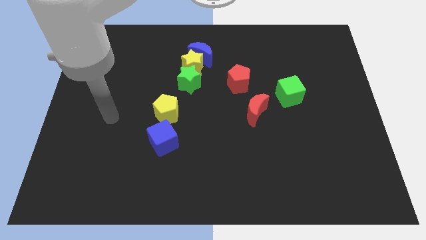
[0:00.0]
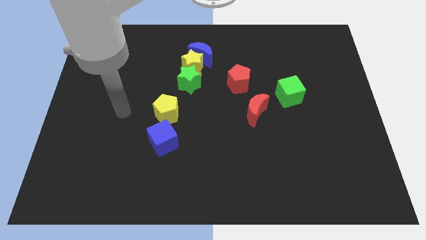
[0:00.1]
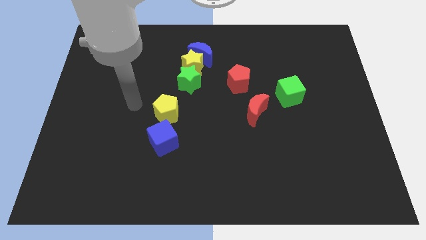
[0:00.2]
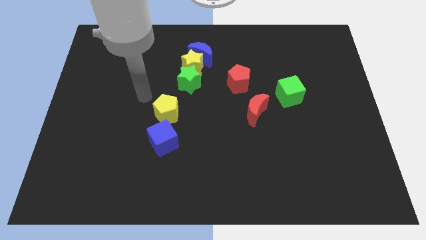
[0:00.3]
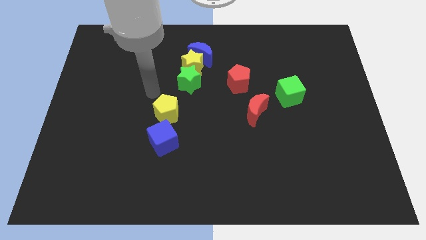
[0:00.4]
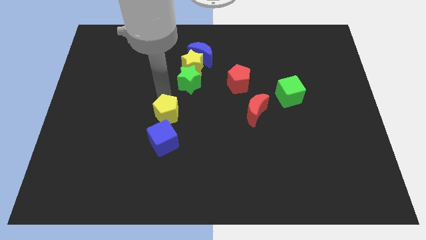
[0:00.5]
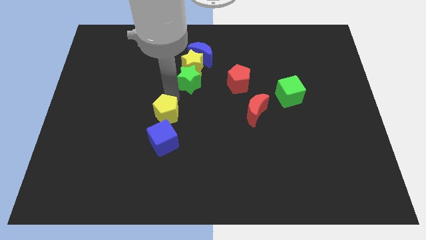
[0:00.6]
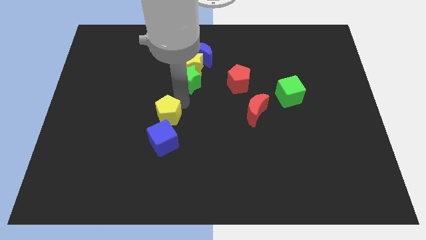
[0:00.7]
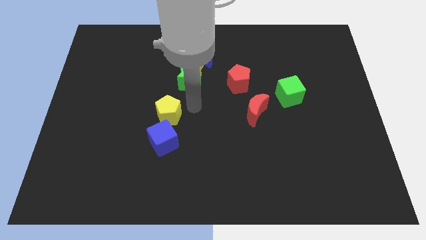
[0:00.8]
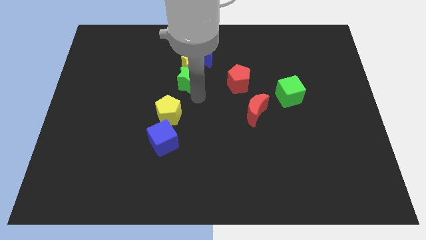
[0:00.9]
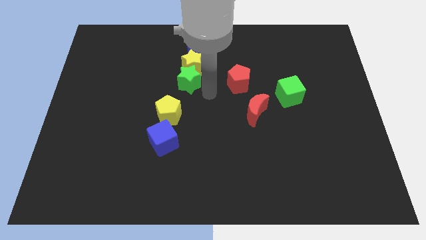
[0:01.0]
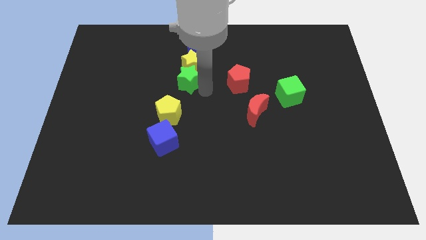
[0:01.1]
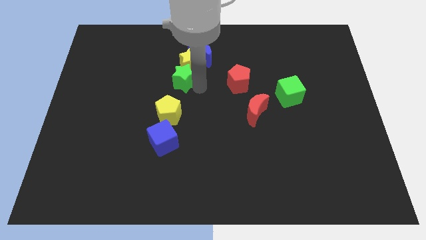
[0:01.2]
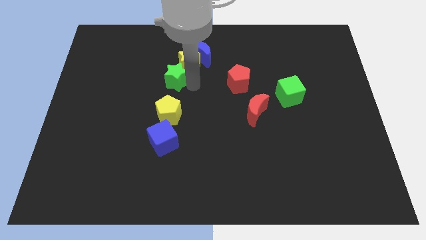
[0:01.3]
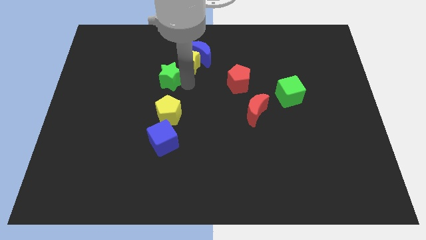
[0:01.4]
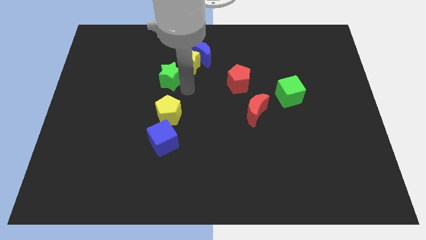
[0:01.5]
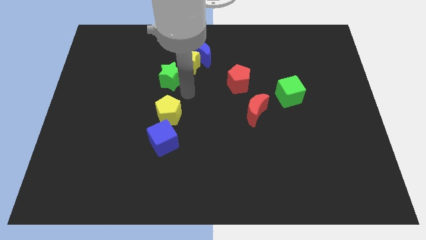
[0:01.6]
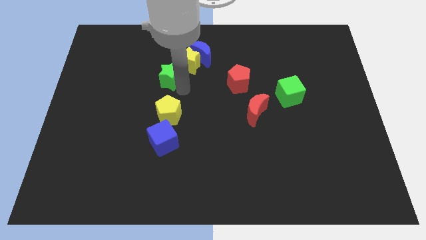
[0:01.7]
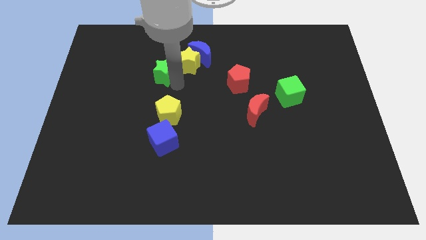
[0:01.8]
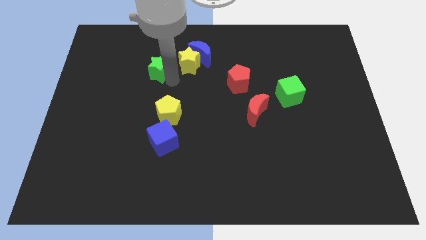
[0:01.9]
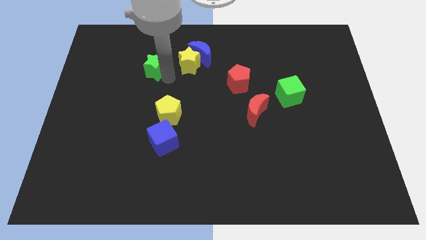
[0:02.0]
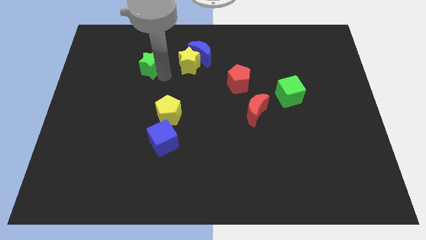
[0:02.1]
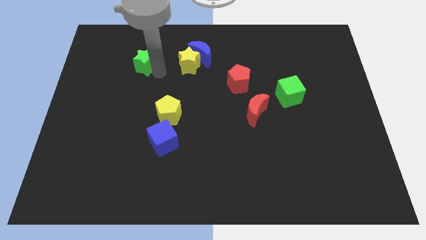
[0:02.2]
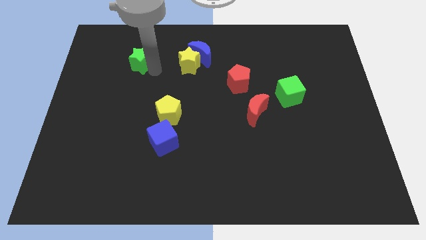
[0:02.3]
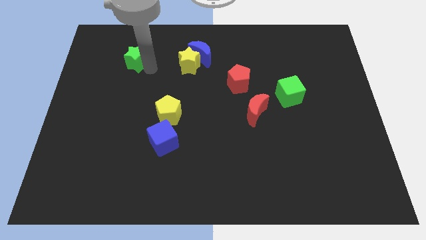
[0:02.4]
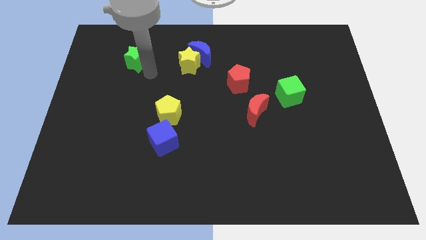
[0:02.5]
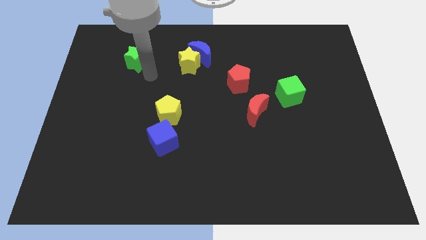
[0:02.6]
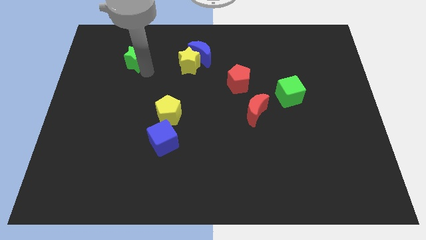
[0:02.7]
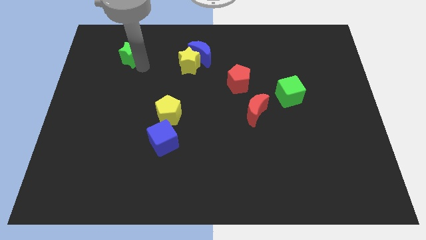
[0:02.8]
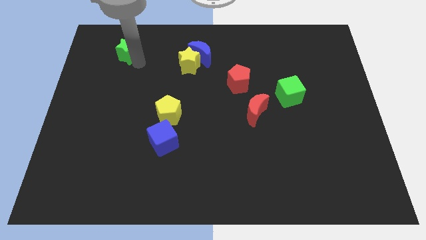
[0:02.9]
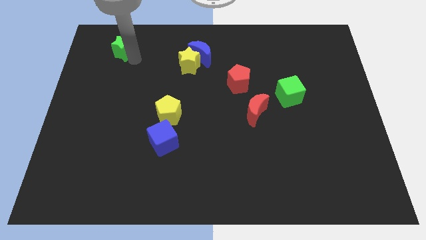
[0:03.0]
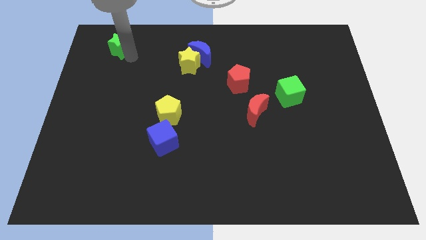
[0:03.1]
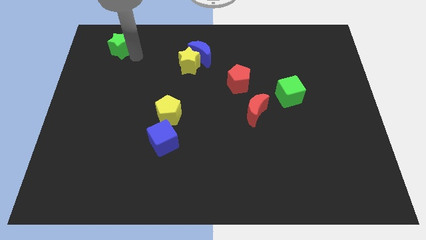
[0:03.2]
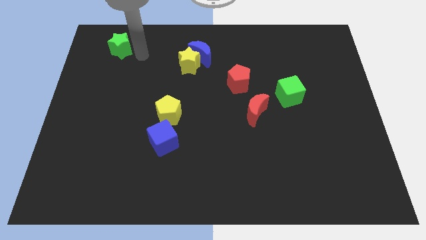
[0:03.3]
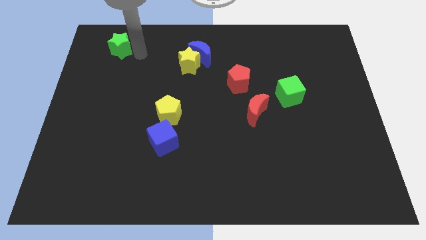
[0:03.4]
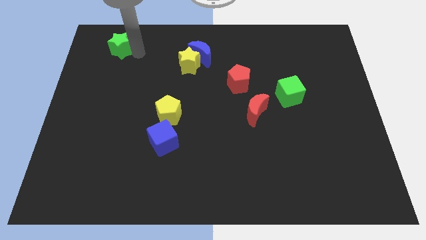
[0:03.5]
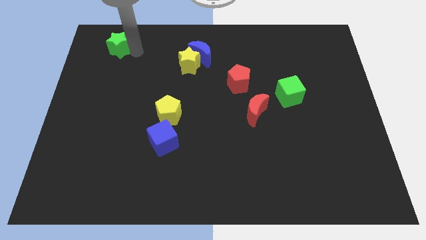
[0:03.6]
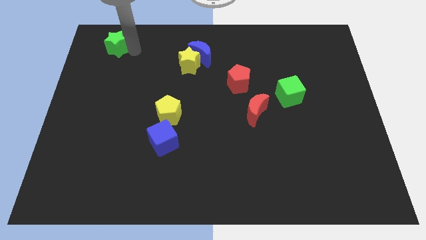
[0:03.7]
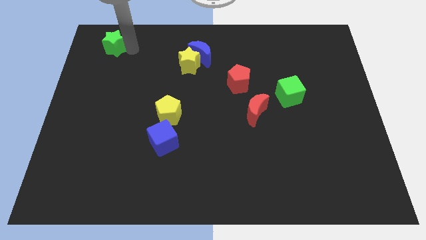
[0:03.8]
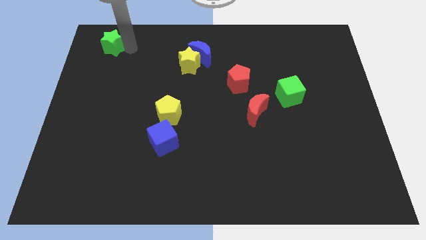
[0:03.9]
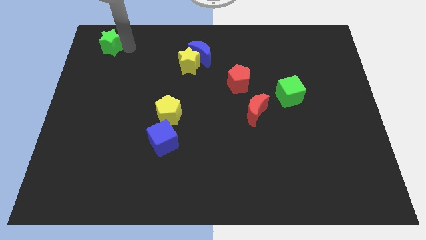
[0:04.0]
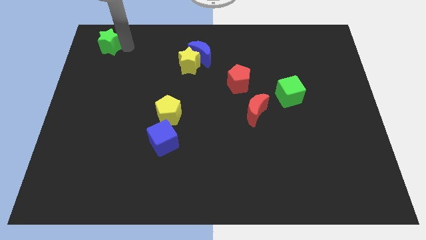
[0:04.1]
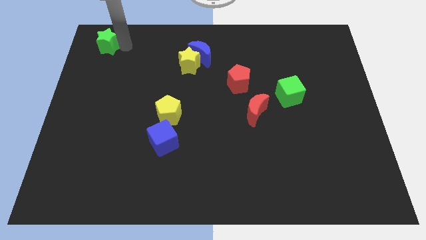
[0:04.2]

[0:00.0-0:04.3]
push the green star to the top left corner

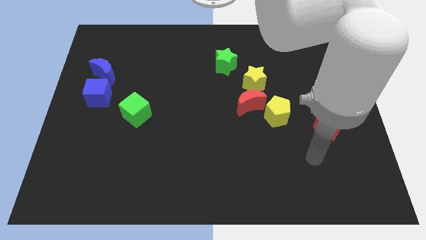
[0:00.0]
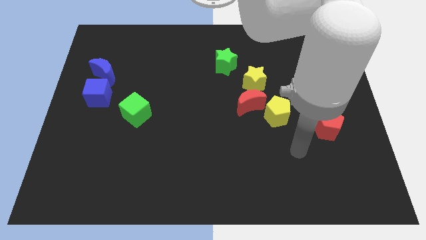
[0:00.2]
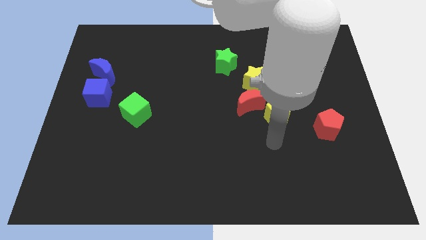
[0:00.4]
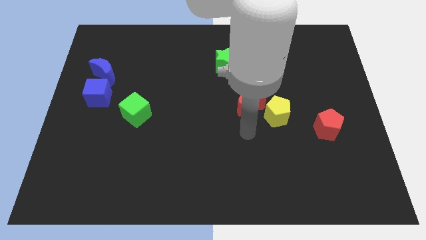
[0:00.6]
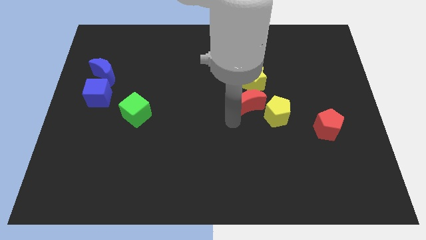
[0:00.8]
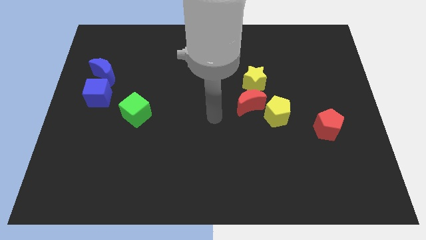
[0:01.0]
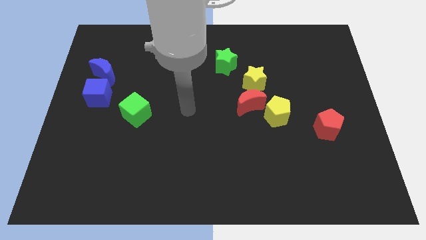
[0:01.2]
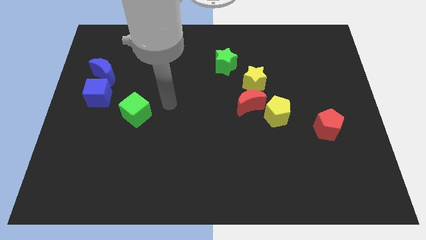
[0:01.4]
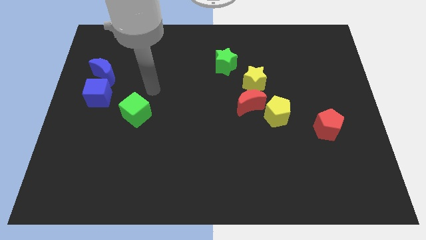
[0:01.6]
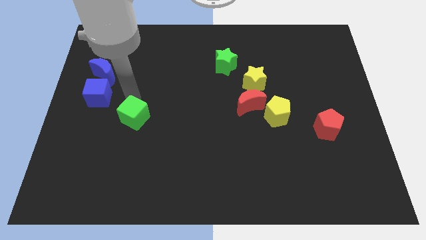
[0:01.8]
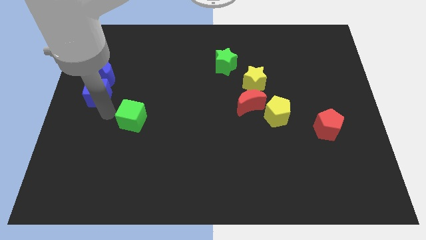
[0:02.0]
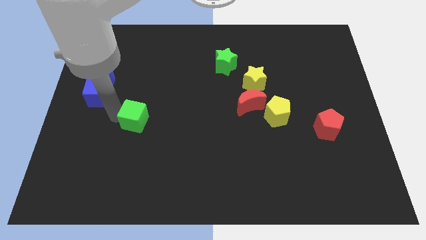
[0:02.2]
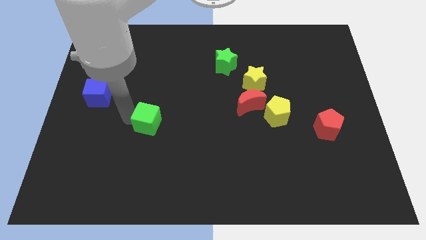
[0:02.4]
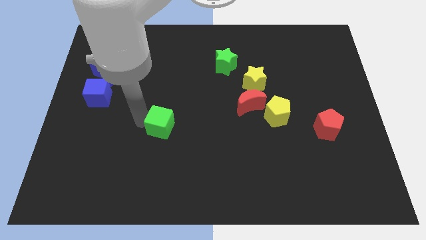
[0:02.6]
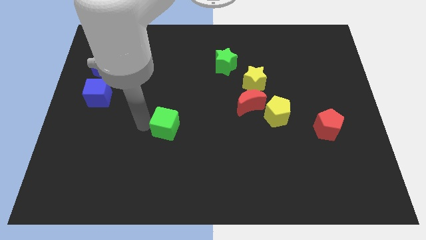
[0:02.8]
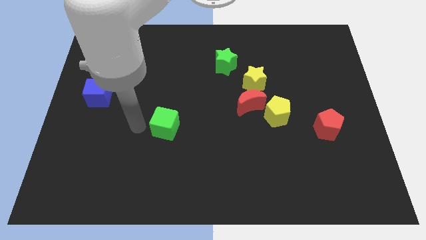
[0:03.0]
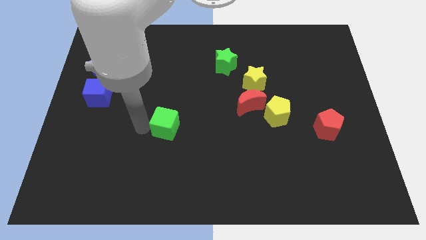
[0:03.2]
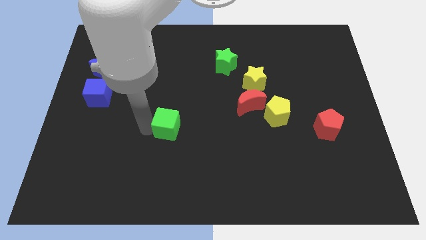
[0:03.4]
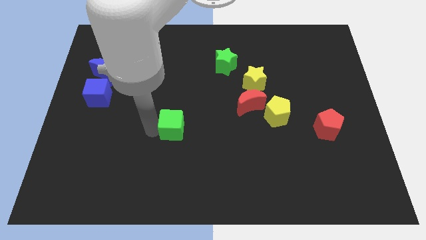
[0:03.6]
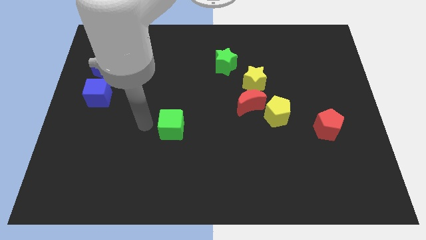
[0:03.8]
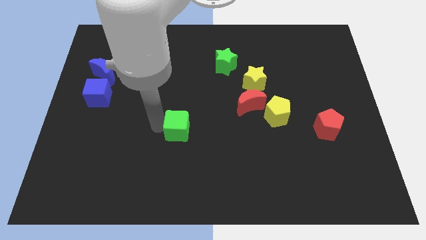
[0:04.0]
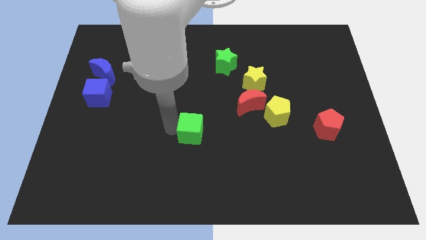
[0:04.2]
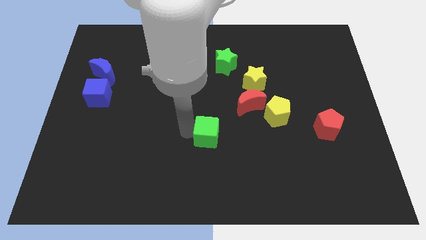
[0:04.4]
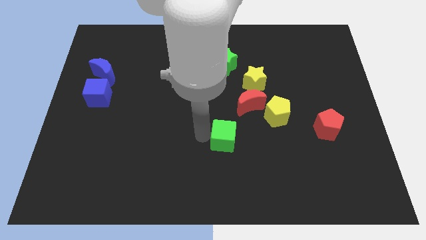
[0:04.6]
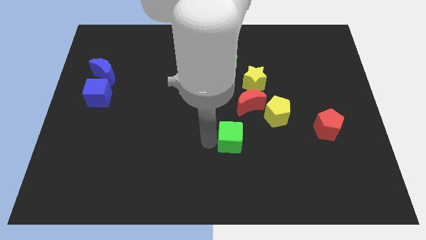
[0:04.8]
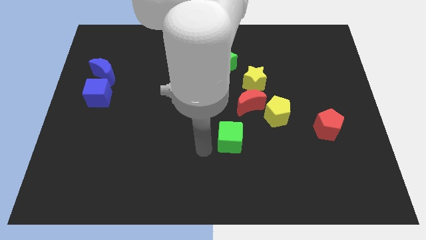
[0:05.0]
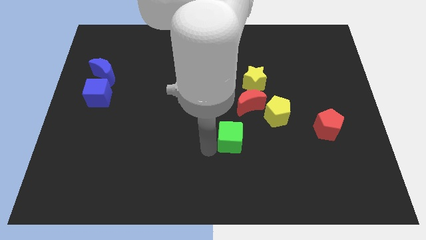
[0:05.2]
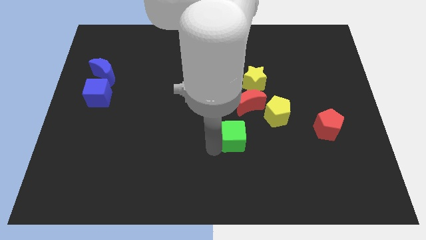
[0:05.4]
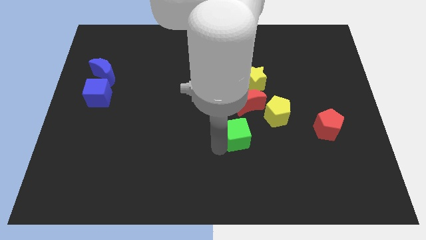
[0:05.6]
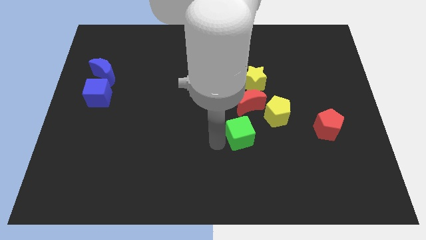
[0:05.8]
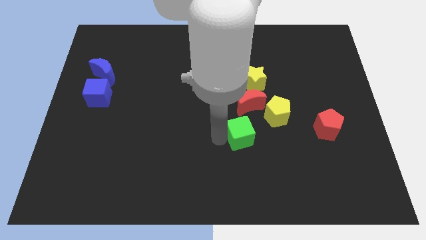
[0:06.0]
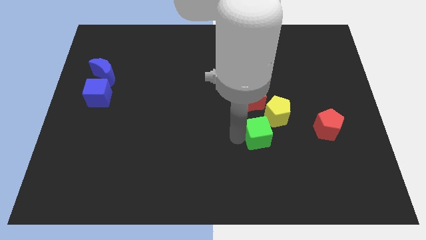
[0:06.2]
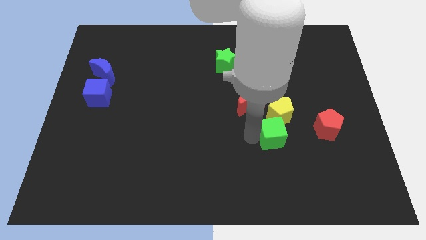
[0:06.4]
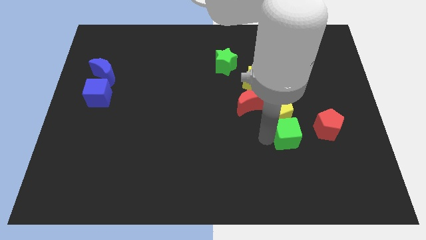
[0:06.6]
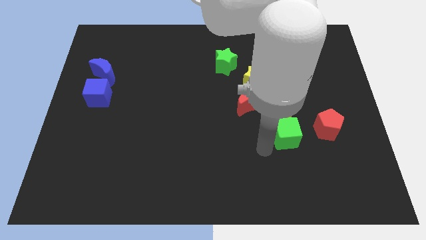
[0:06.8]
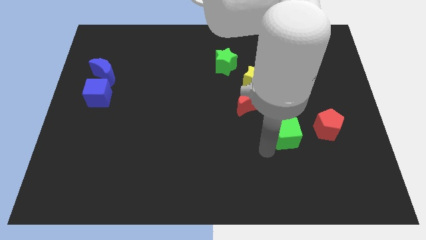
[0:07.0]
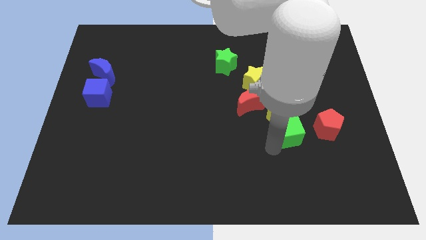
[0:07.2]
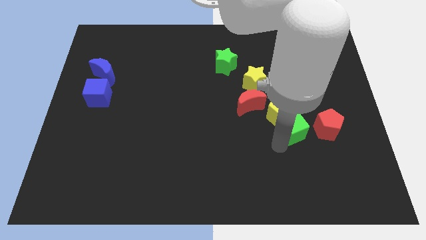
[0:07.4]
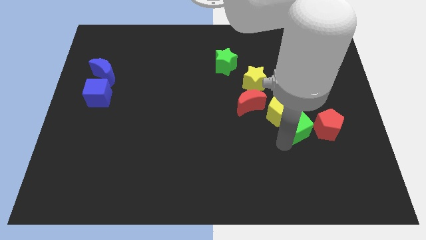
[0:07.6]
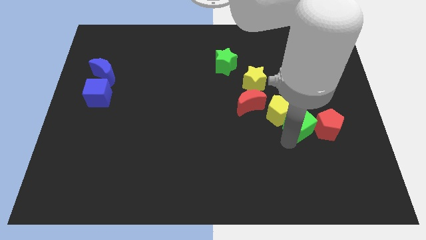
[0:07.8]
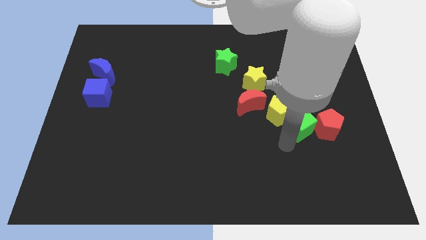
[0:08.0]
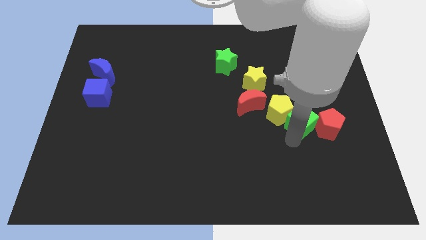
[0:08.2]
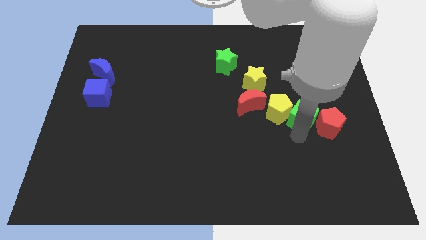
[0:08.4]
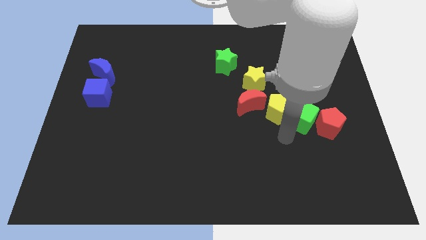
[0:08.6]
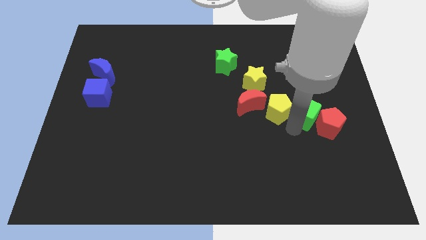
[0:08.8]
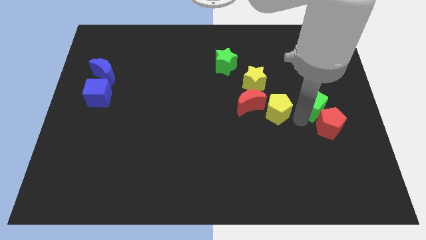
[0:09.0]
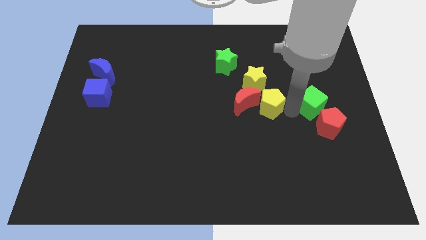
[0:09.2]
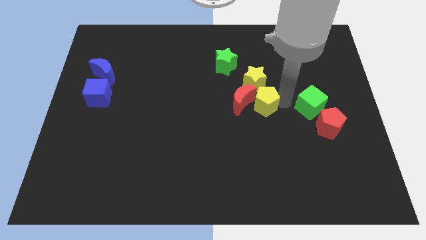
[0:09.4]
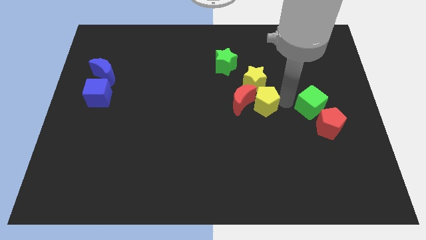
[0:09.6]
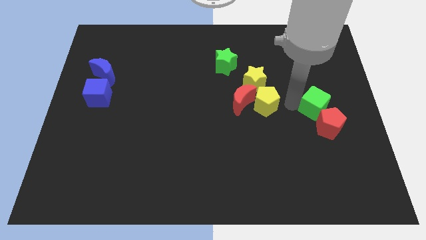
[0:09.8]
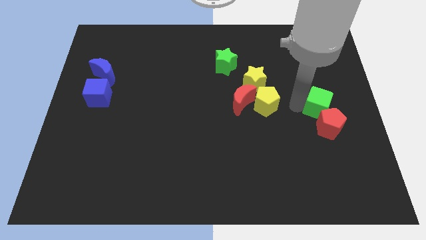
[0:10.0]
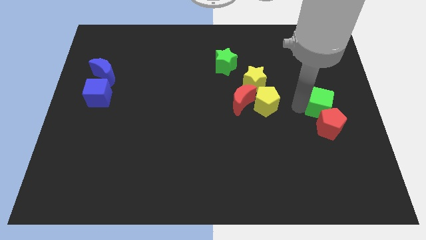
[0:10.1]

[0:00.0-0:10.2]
put the green cube to the right side
